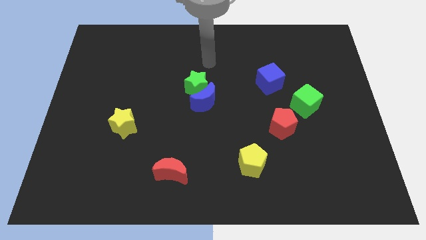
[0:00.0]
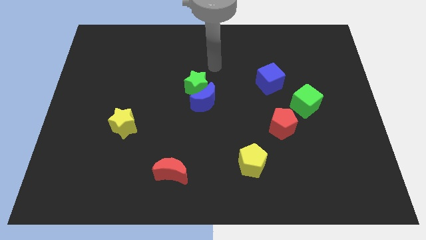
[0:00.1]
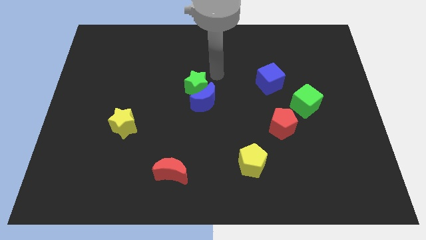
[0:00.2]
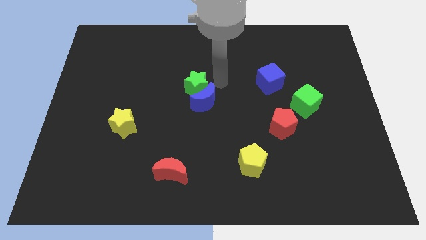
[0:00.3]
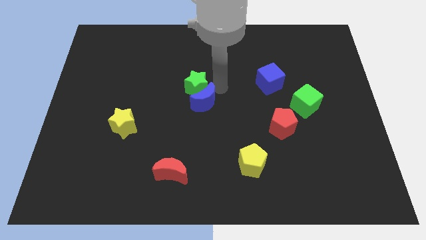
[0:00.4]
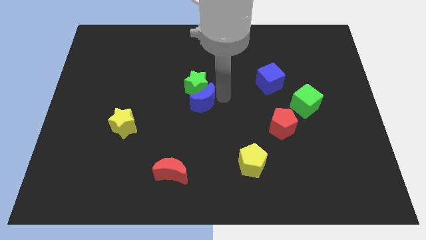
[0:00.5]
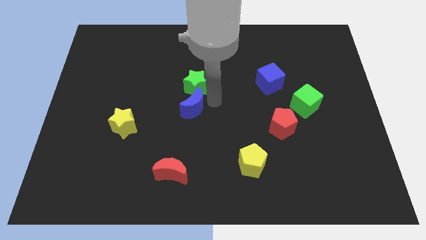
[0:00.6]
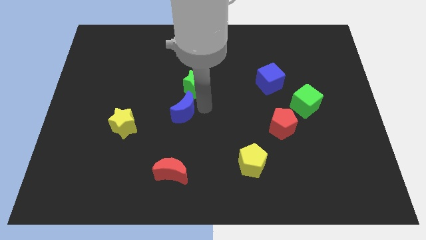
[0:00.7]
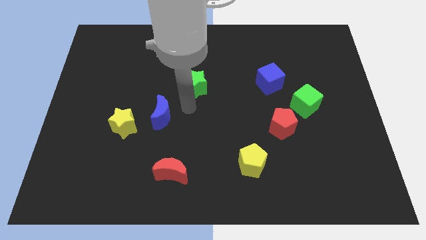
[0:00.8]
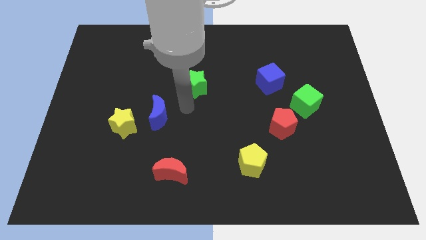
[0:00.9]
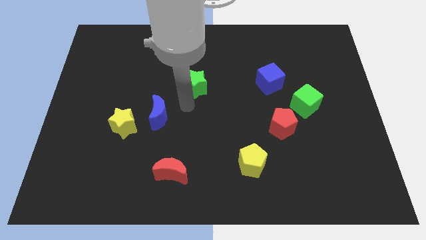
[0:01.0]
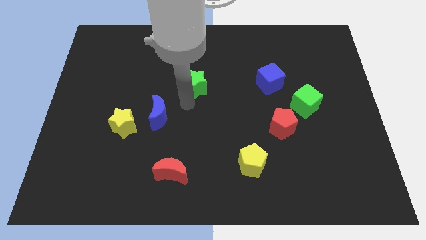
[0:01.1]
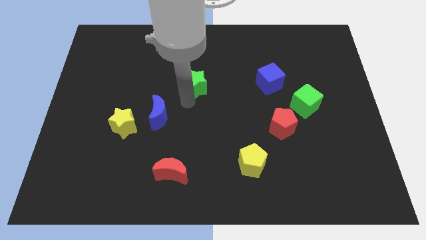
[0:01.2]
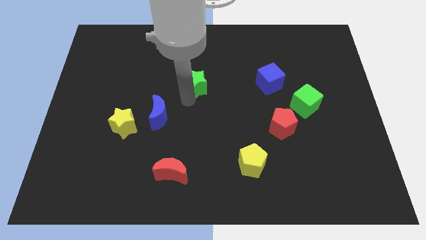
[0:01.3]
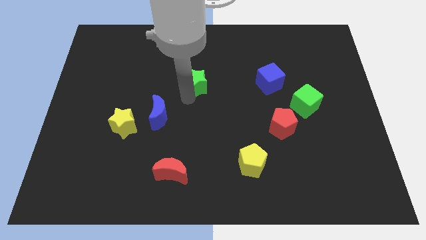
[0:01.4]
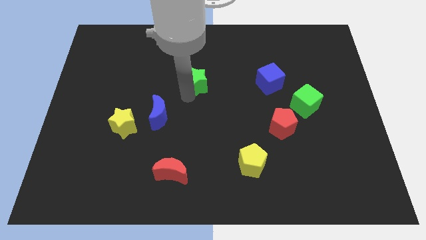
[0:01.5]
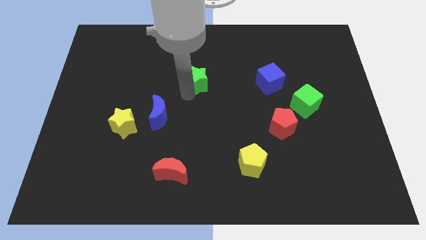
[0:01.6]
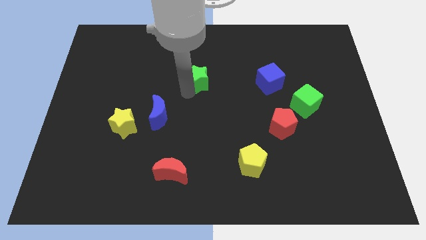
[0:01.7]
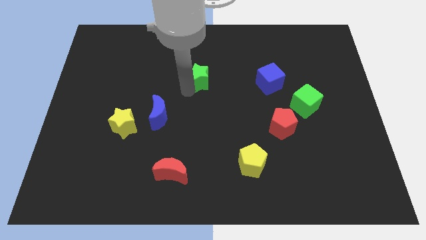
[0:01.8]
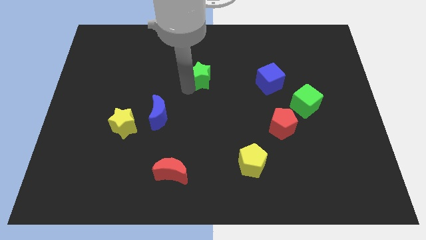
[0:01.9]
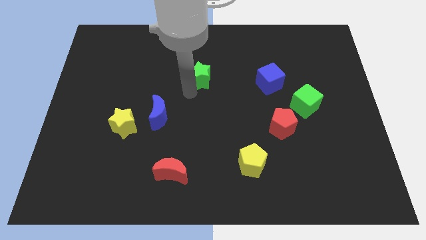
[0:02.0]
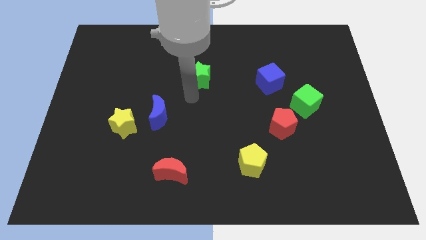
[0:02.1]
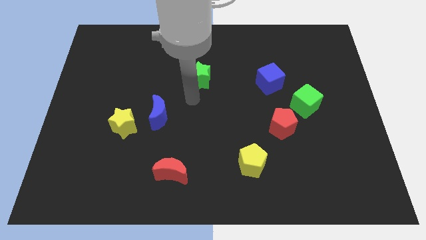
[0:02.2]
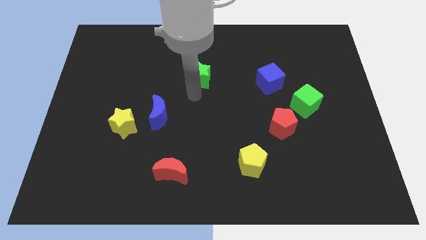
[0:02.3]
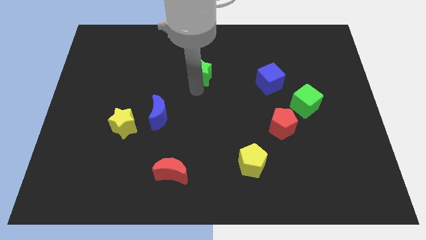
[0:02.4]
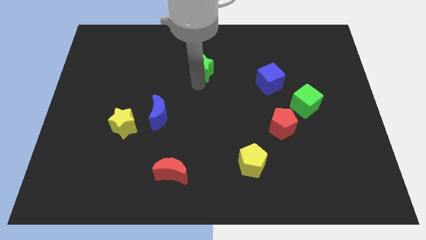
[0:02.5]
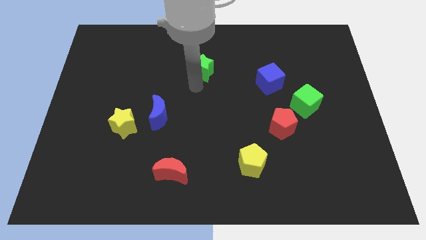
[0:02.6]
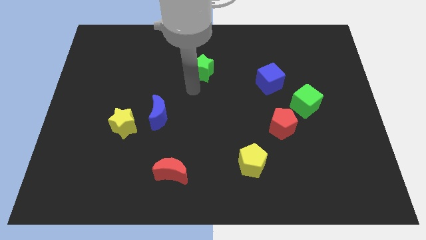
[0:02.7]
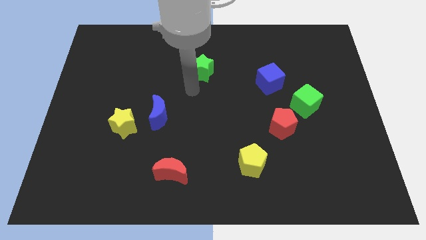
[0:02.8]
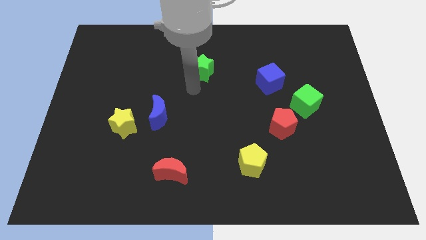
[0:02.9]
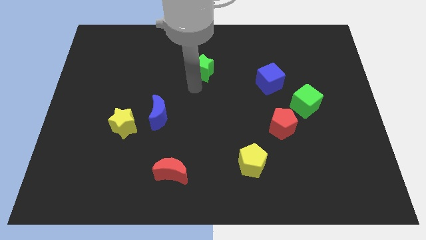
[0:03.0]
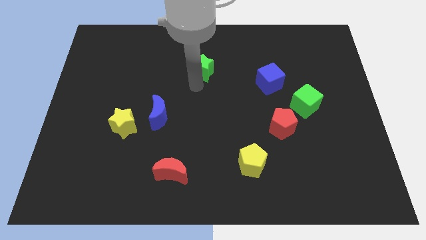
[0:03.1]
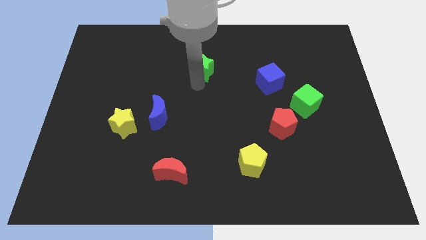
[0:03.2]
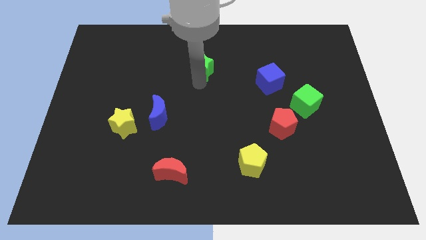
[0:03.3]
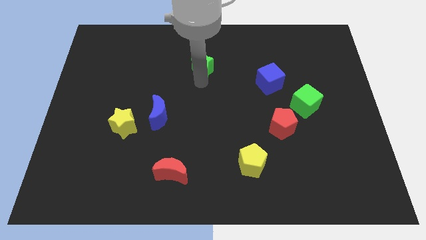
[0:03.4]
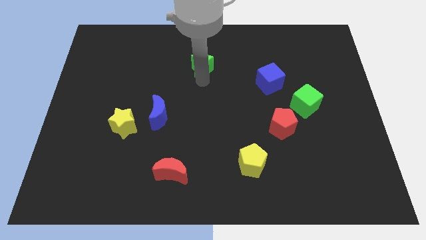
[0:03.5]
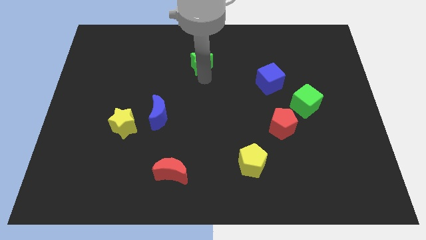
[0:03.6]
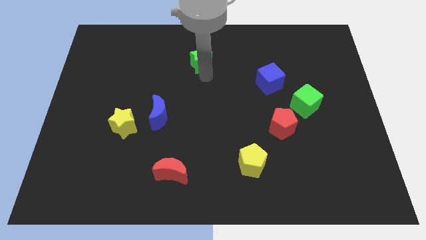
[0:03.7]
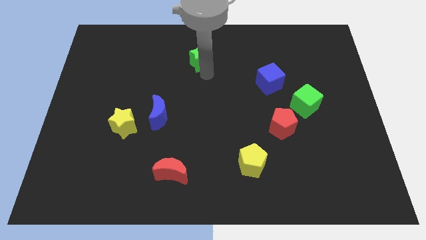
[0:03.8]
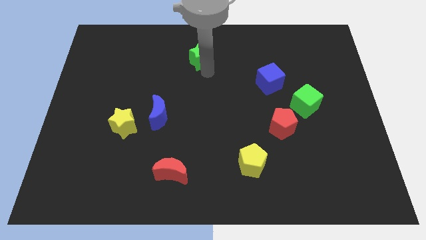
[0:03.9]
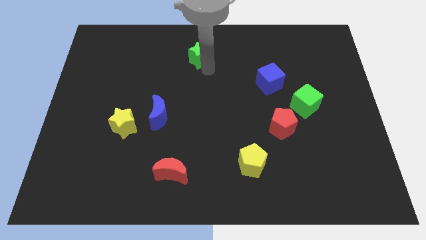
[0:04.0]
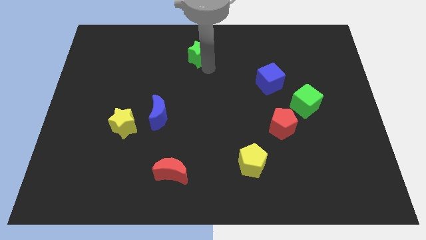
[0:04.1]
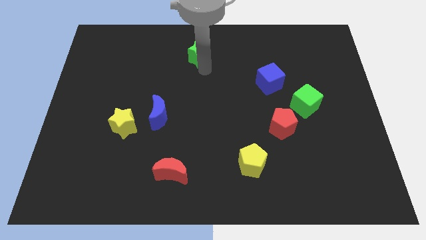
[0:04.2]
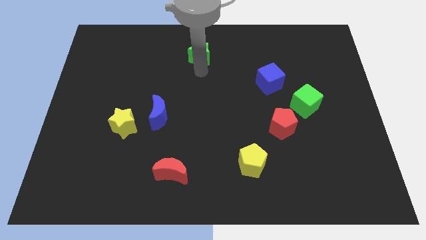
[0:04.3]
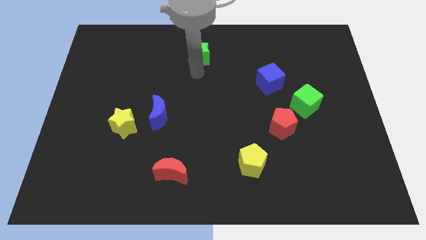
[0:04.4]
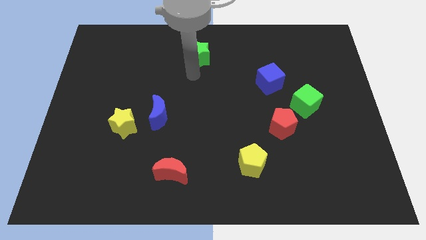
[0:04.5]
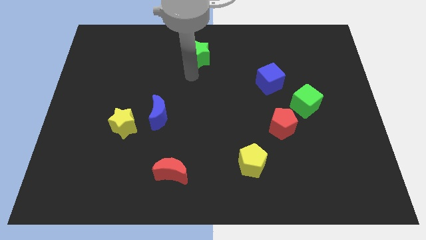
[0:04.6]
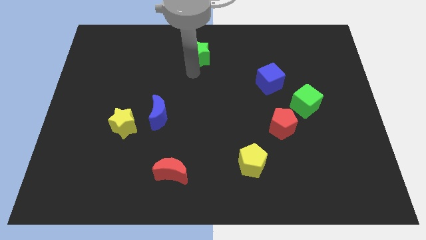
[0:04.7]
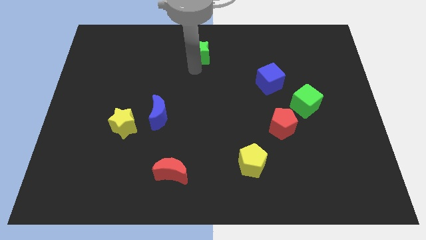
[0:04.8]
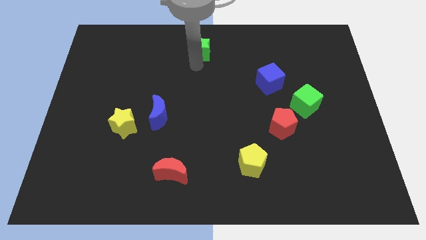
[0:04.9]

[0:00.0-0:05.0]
push the green star to the top side

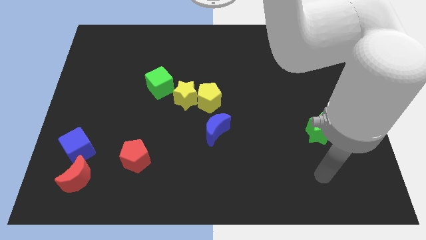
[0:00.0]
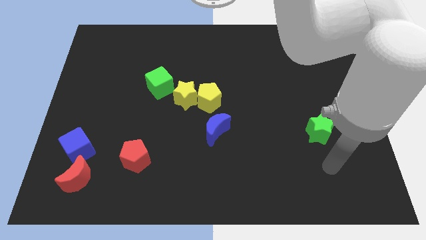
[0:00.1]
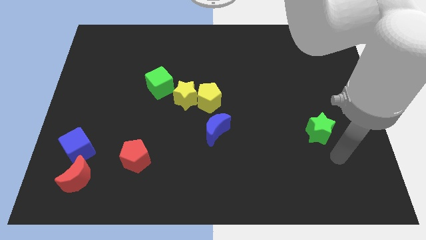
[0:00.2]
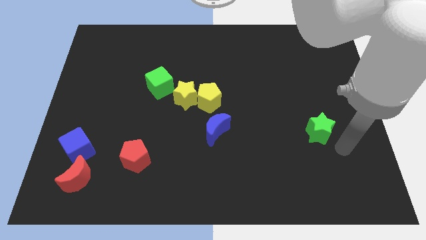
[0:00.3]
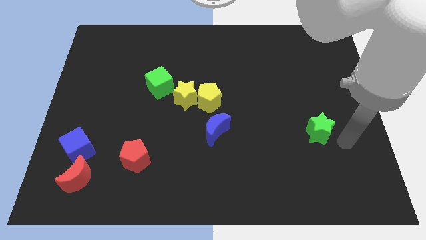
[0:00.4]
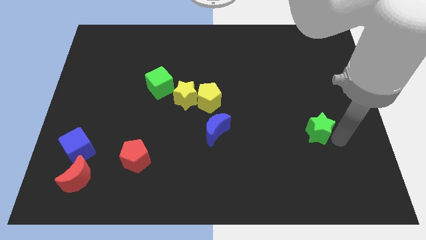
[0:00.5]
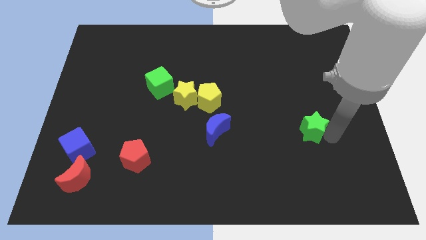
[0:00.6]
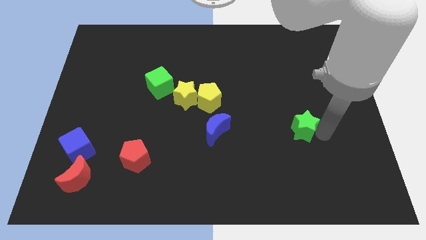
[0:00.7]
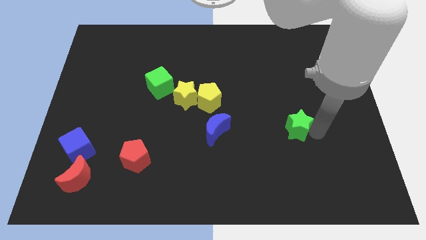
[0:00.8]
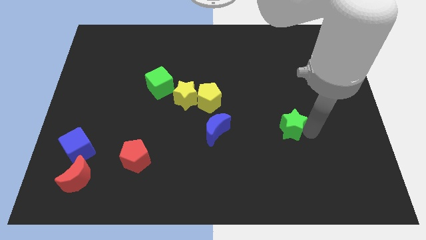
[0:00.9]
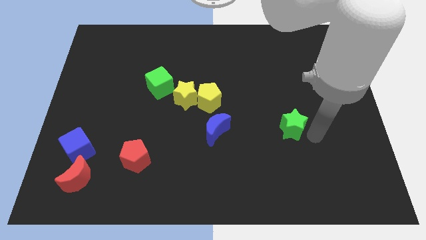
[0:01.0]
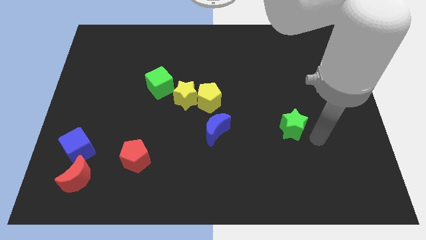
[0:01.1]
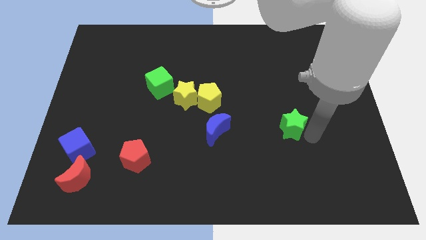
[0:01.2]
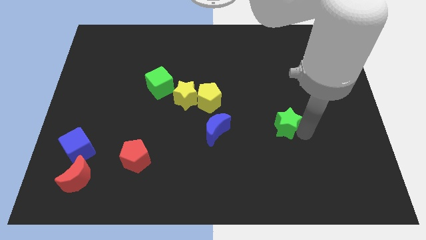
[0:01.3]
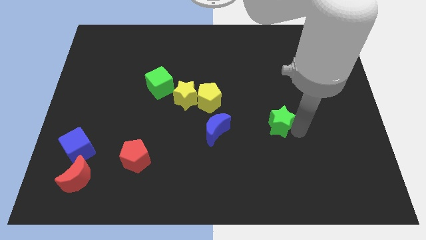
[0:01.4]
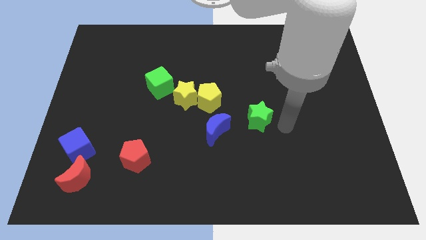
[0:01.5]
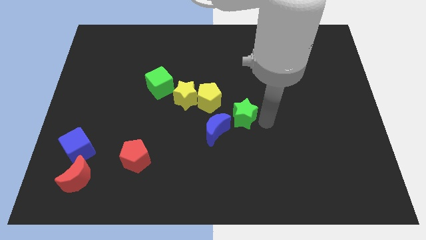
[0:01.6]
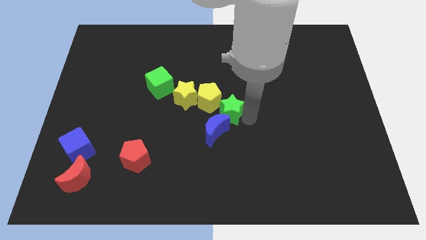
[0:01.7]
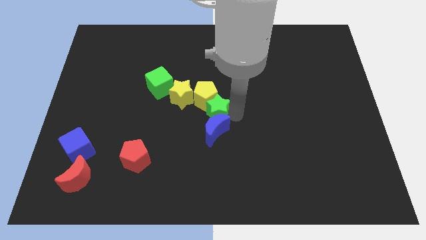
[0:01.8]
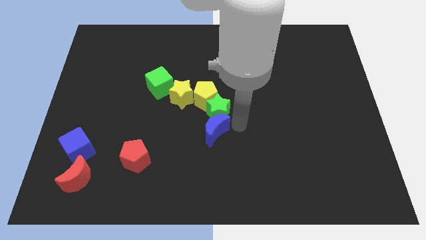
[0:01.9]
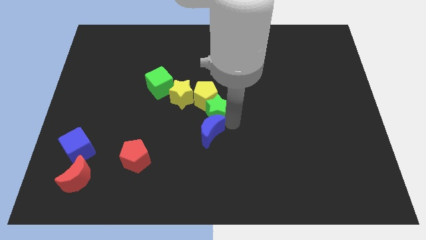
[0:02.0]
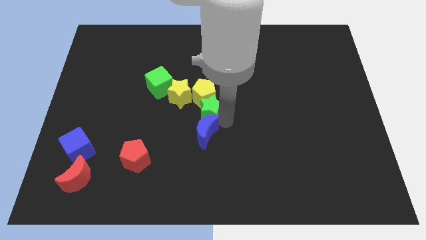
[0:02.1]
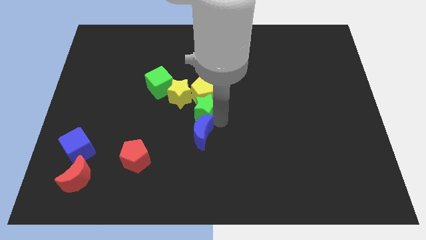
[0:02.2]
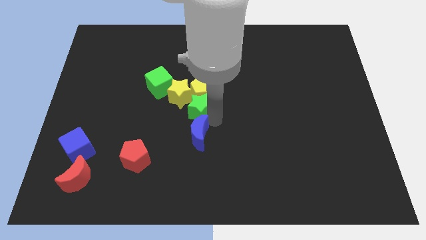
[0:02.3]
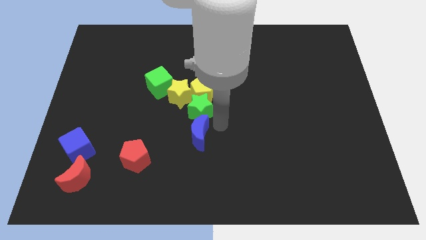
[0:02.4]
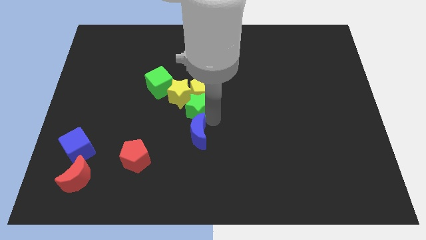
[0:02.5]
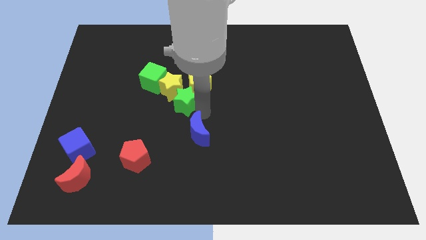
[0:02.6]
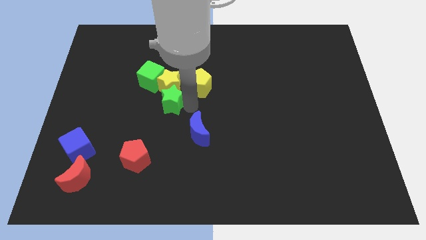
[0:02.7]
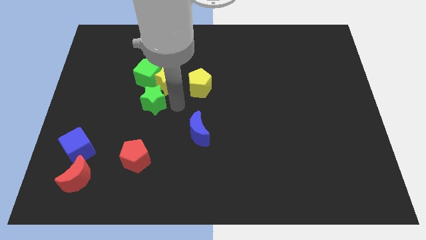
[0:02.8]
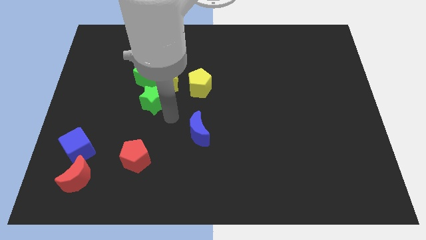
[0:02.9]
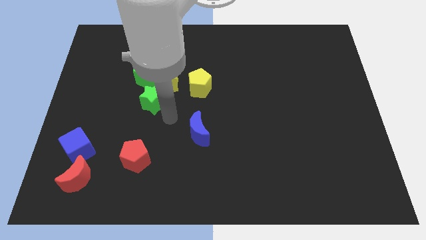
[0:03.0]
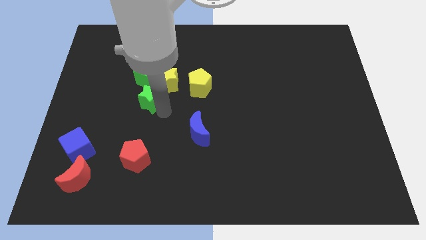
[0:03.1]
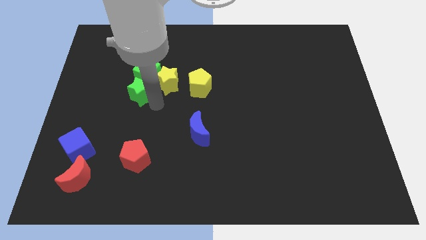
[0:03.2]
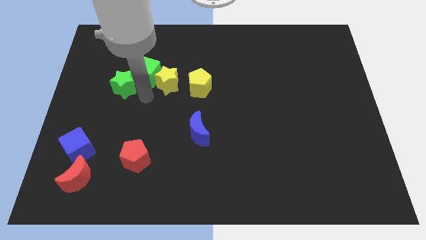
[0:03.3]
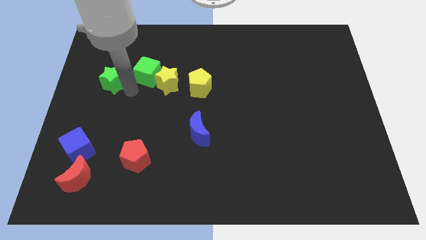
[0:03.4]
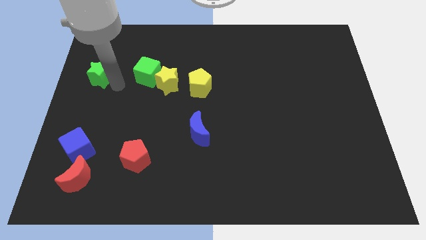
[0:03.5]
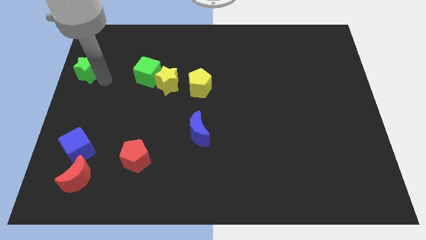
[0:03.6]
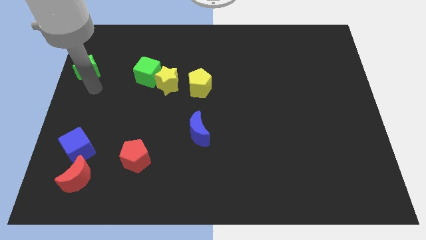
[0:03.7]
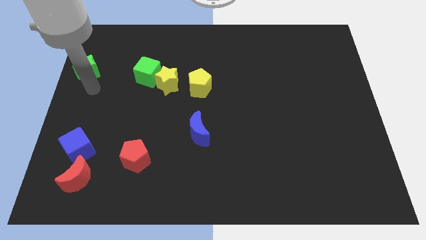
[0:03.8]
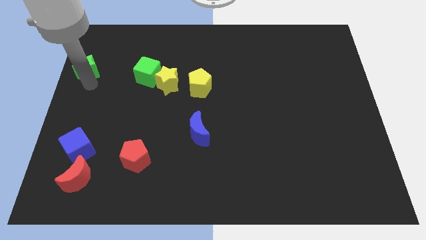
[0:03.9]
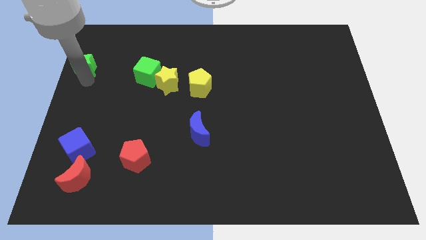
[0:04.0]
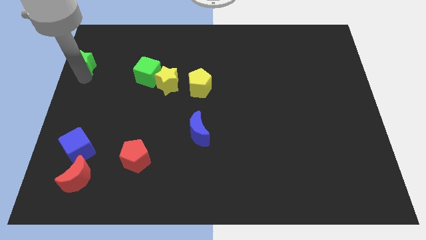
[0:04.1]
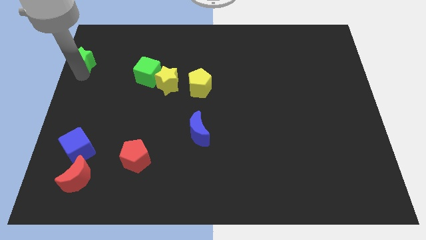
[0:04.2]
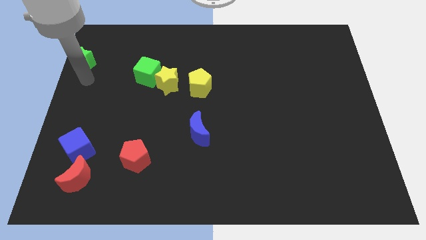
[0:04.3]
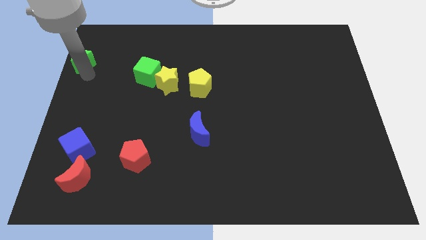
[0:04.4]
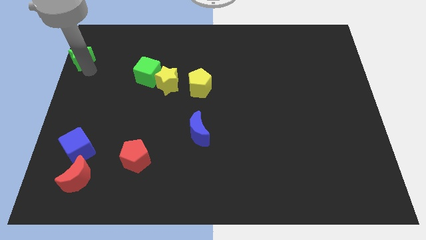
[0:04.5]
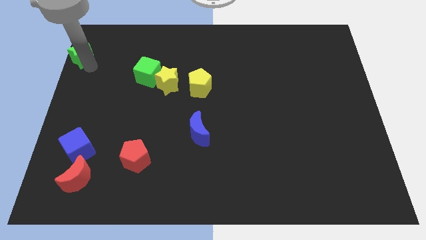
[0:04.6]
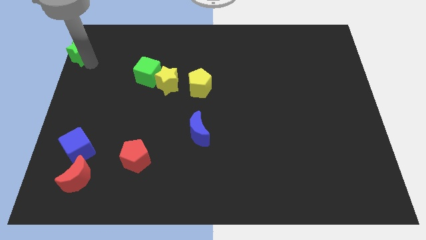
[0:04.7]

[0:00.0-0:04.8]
slide the green star to the top left
